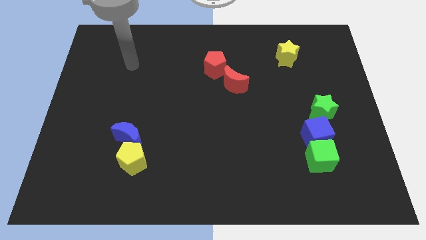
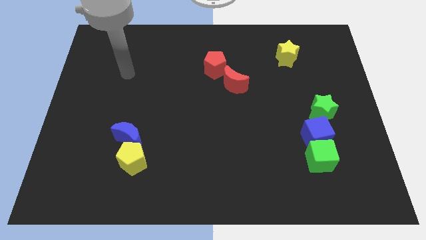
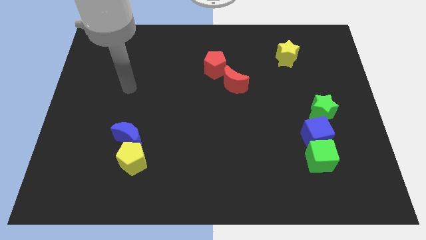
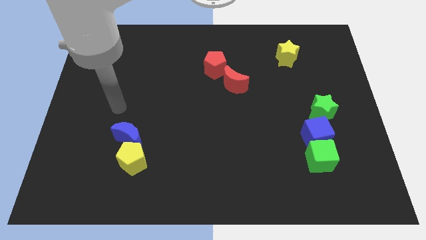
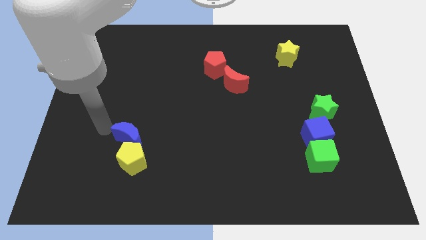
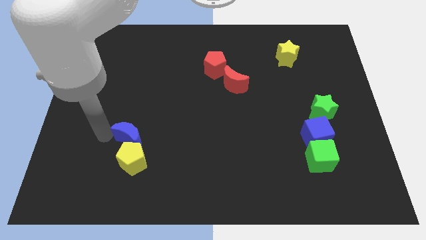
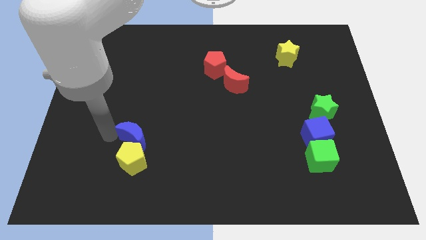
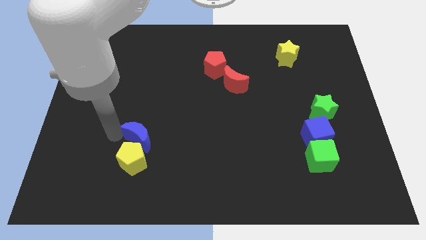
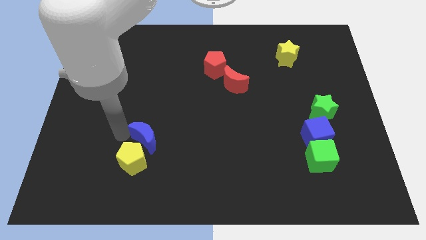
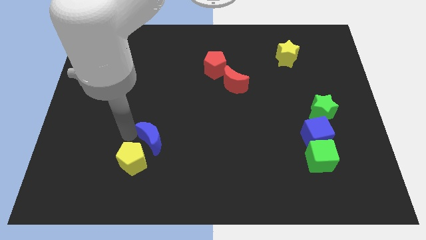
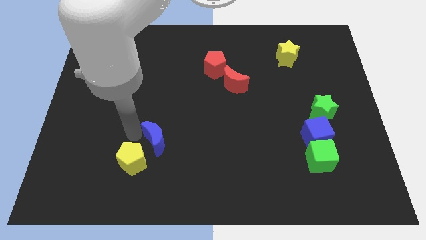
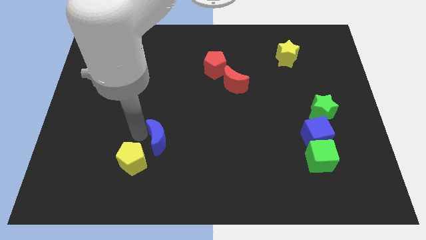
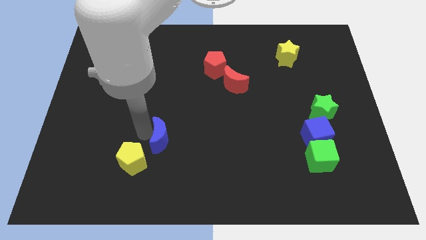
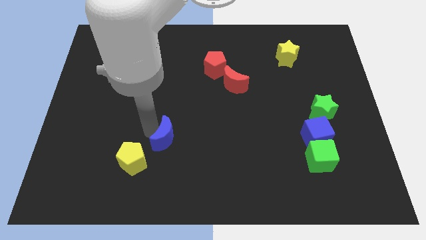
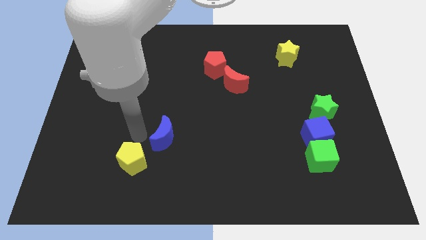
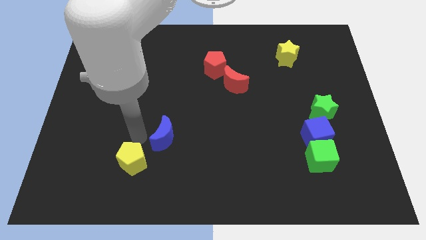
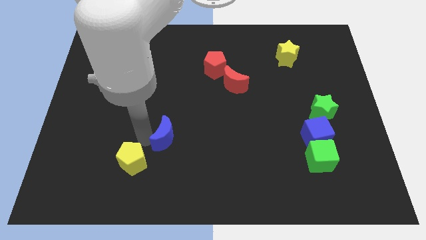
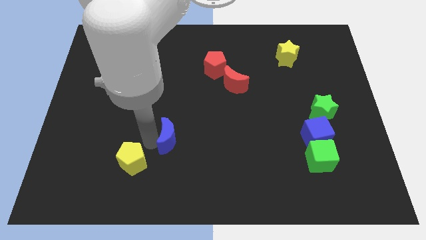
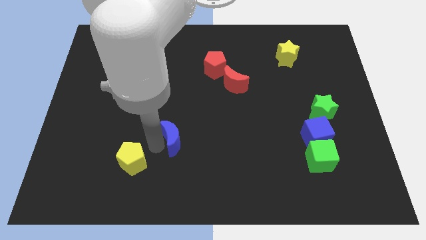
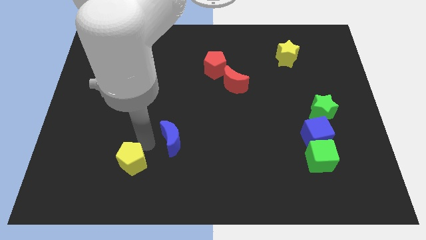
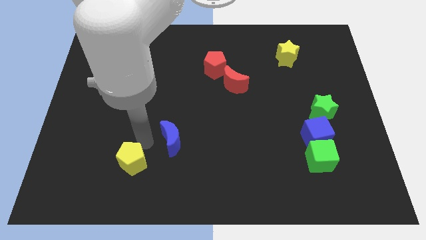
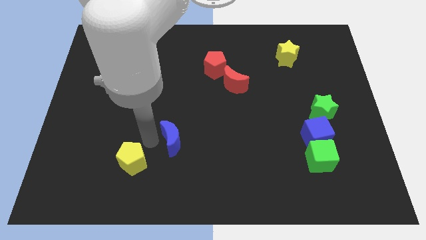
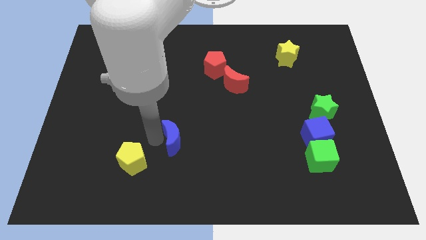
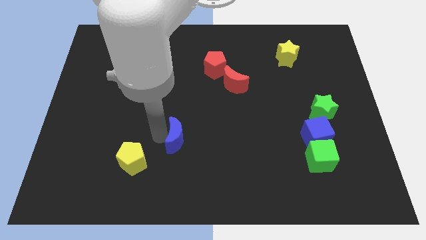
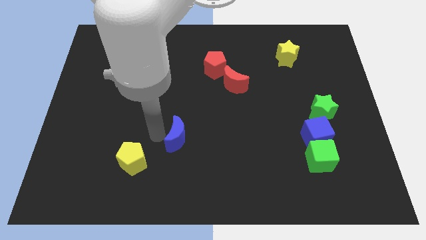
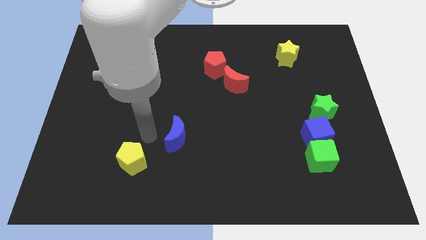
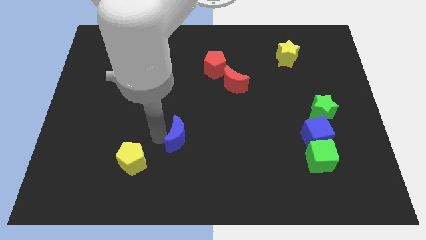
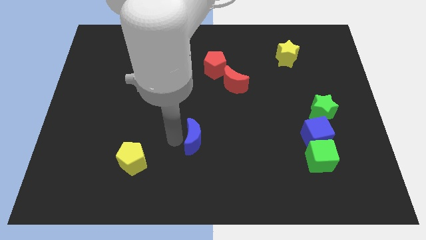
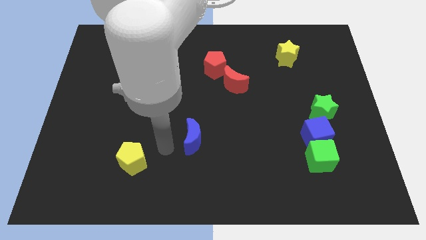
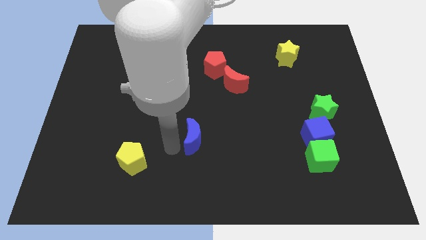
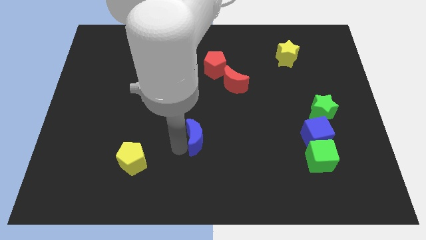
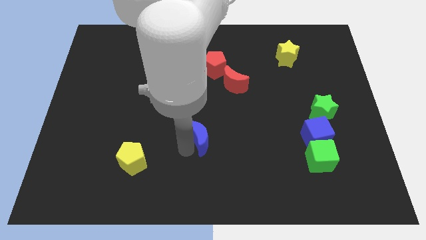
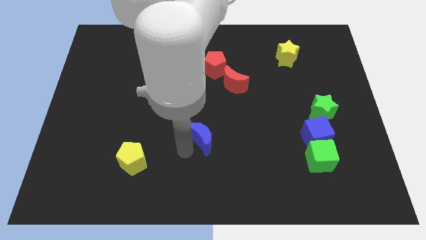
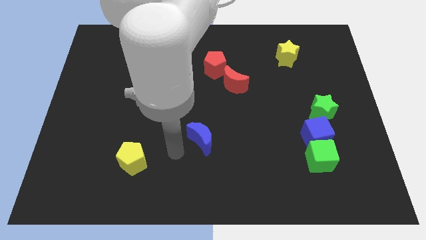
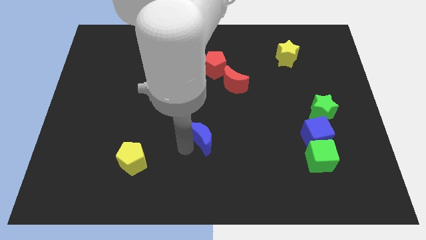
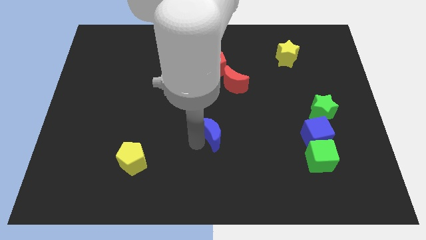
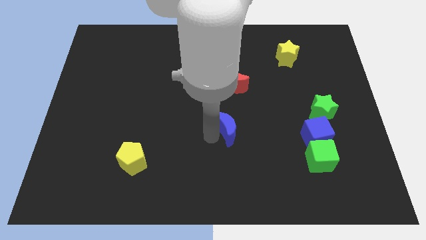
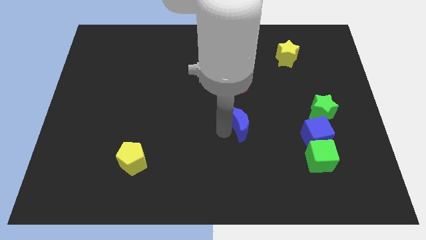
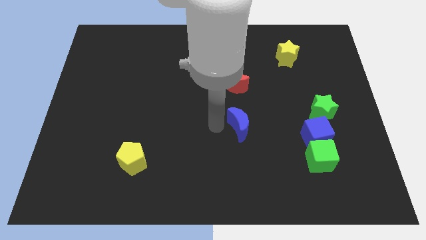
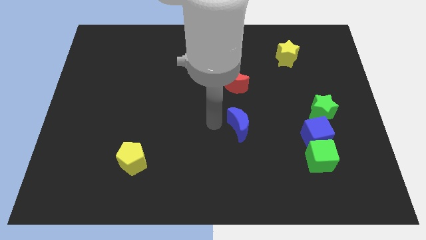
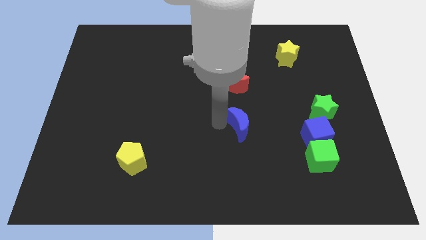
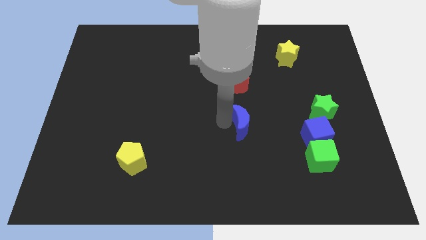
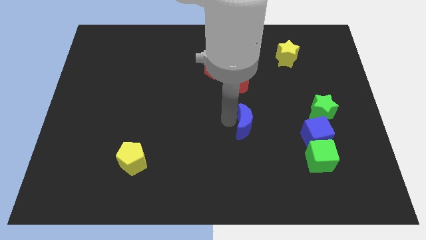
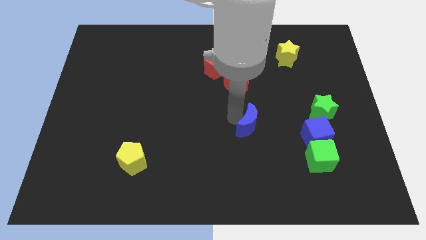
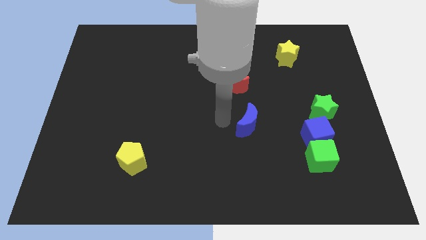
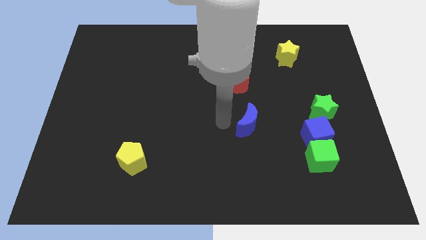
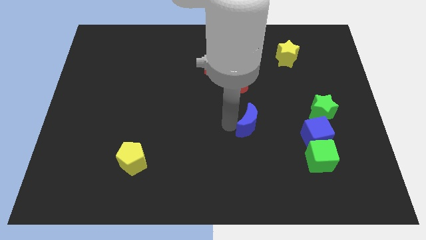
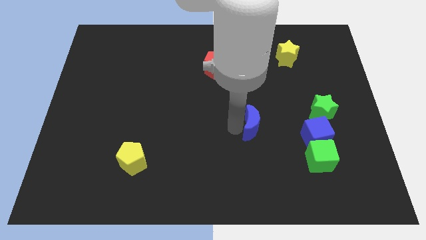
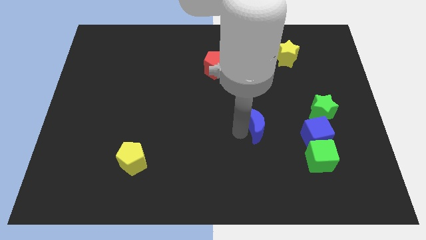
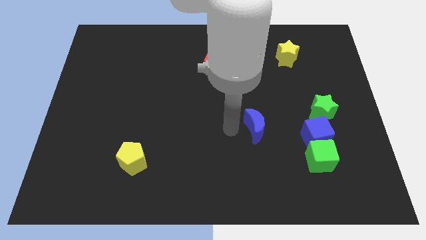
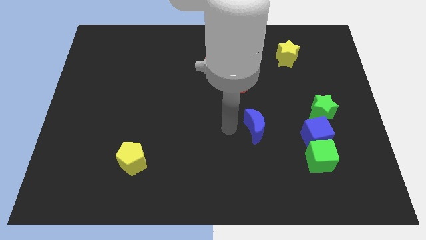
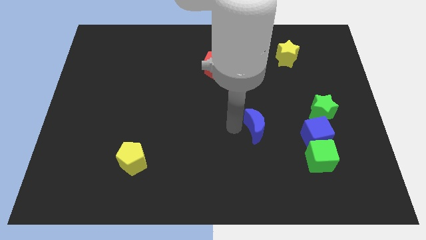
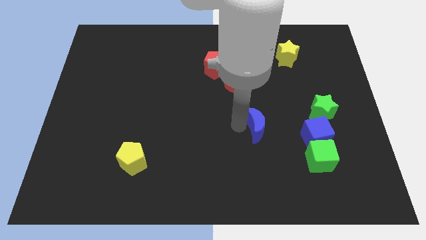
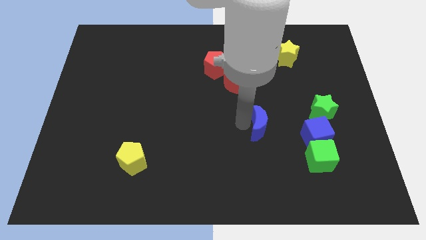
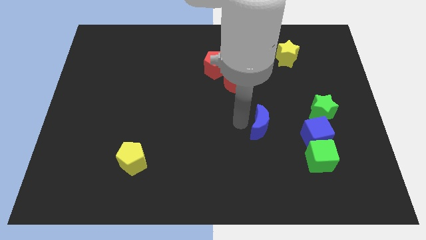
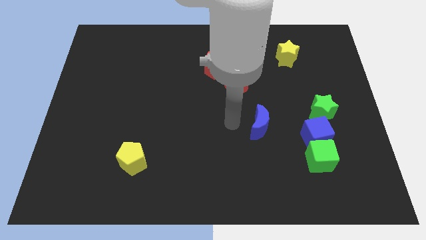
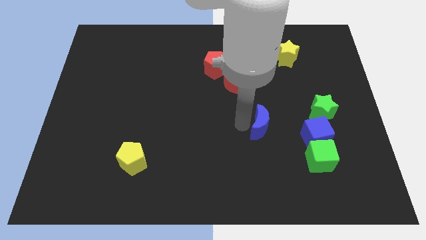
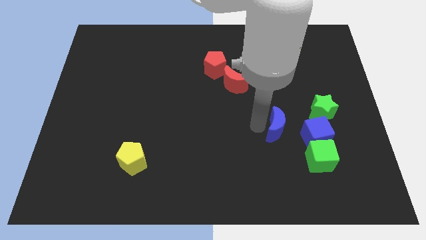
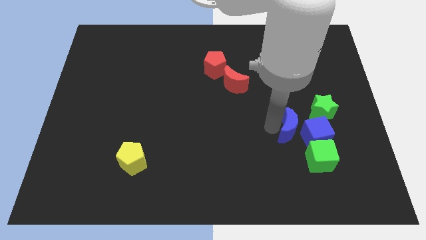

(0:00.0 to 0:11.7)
push the blue moon next to the blue cube

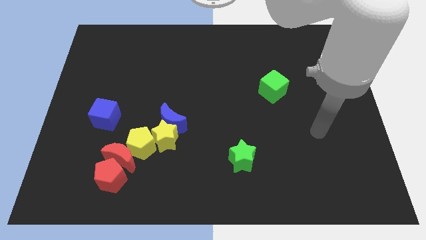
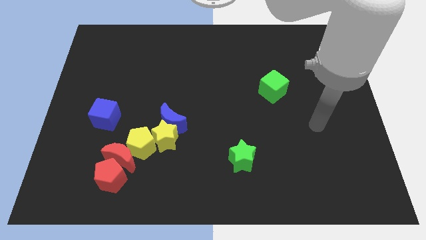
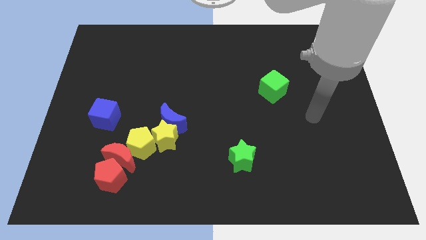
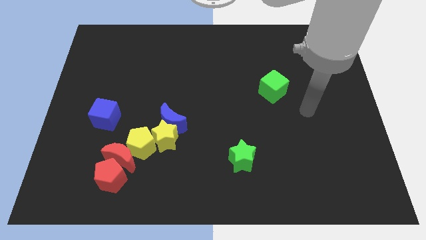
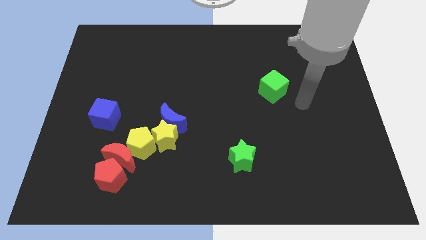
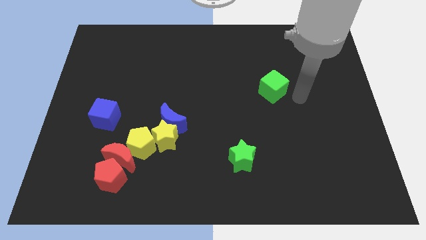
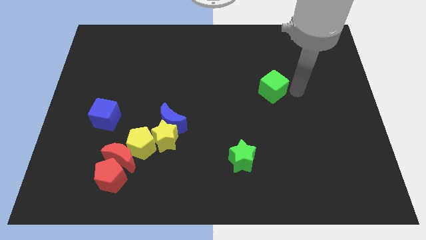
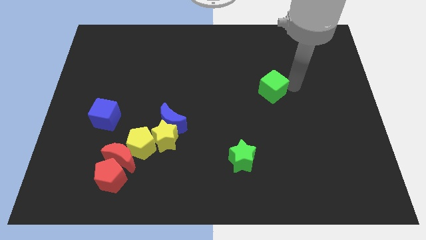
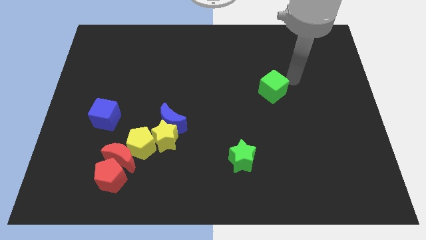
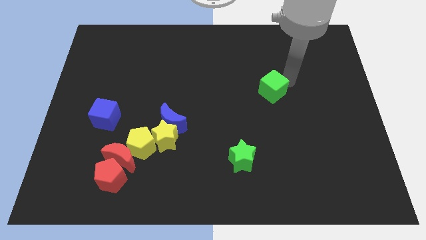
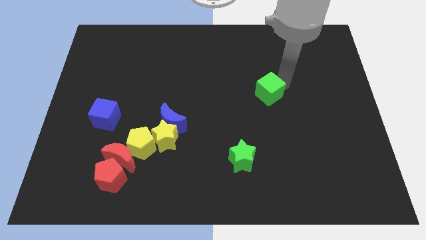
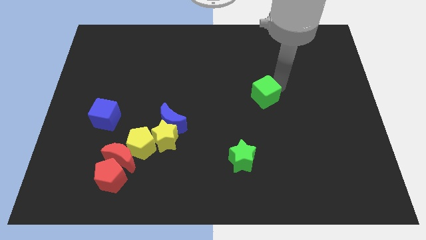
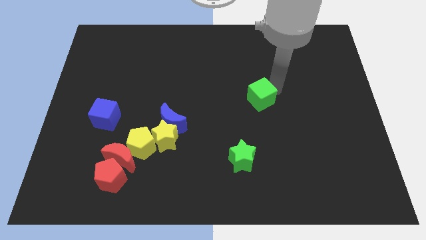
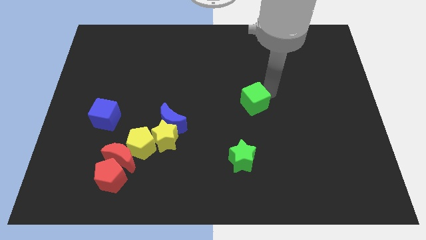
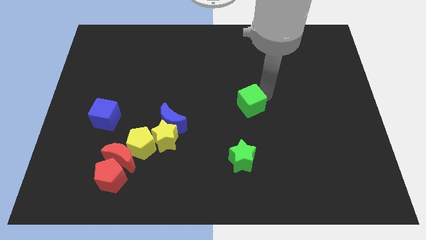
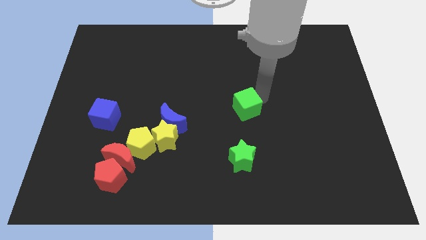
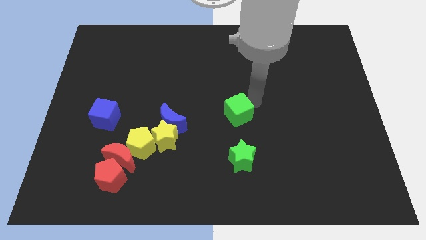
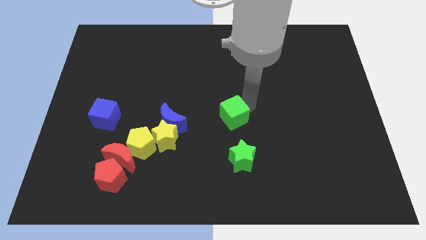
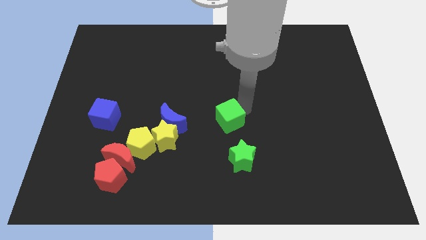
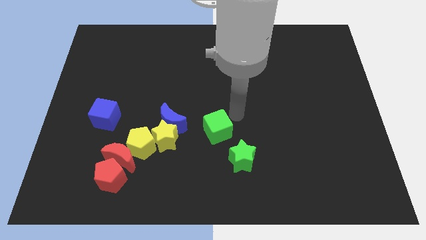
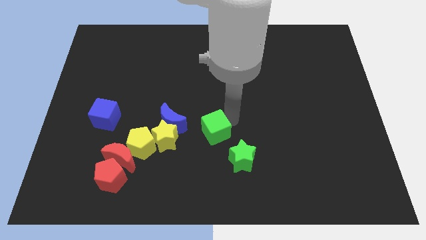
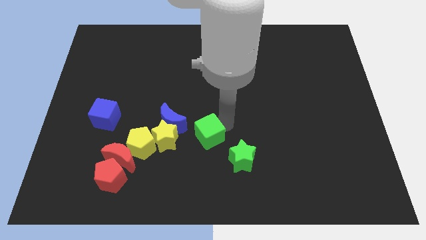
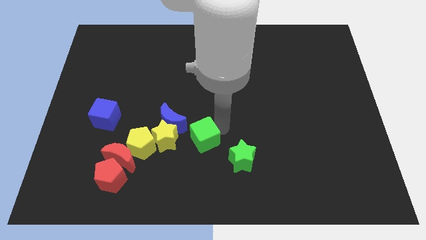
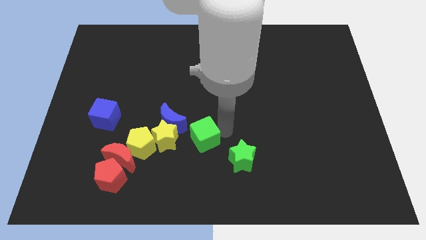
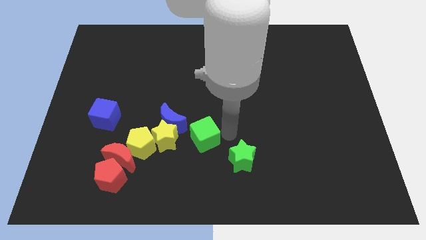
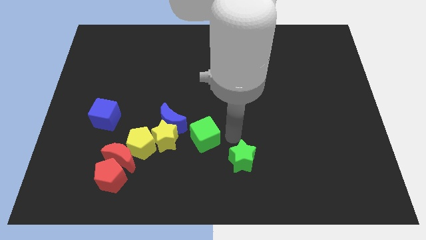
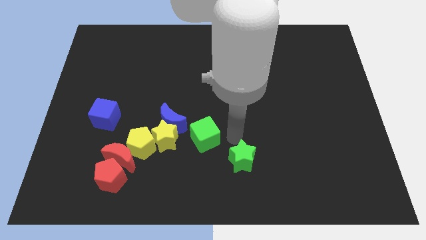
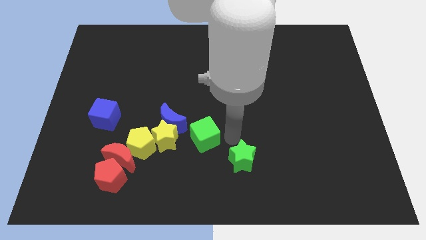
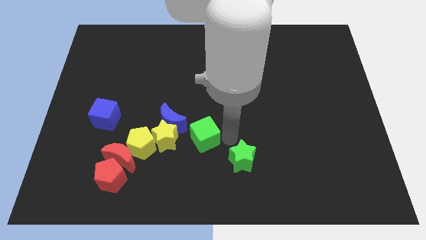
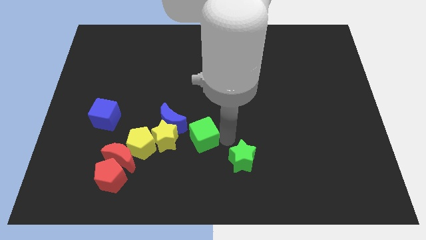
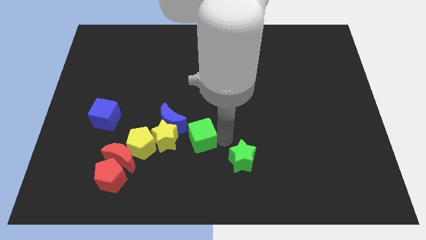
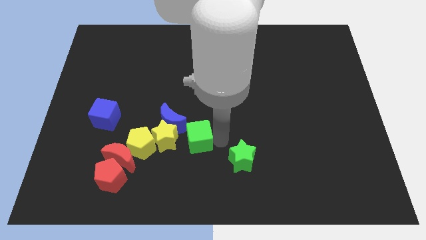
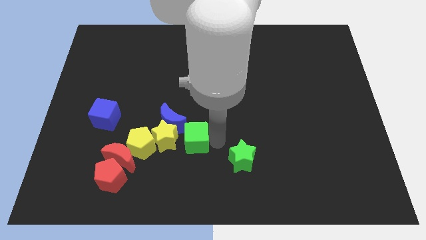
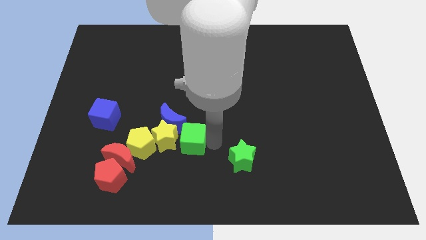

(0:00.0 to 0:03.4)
move the green cube to the yellow star
